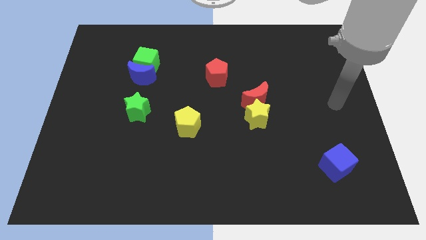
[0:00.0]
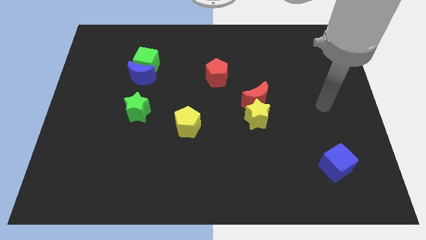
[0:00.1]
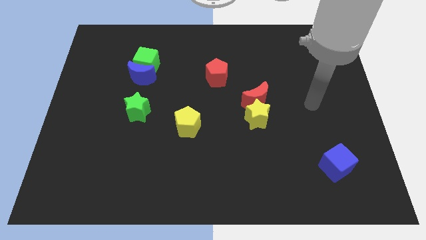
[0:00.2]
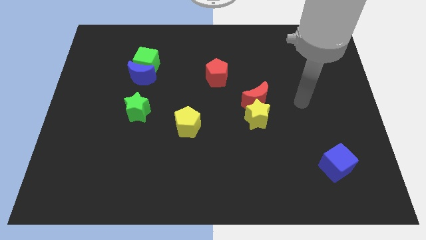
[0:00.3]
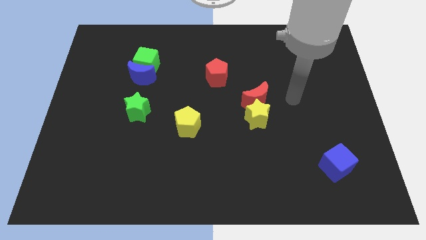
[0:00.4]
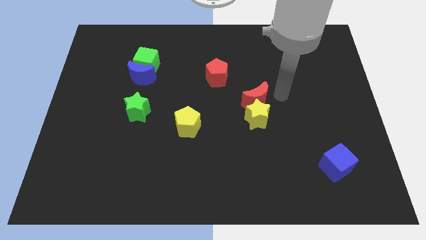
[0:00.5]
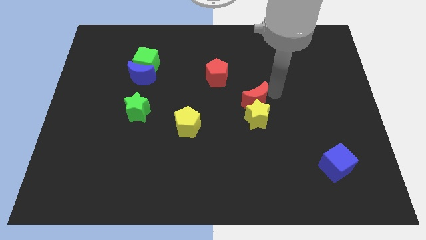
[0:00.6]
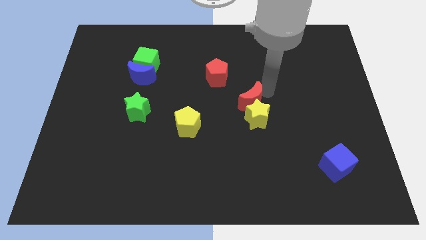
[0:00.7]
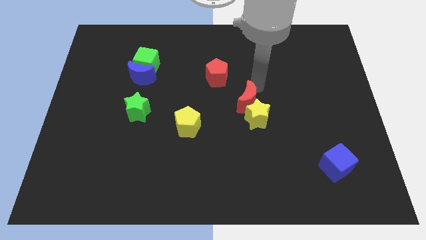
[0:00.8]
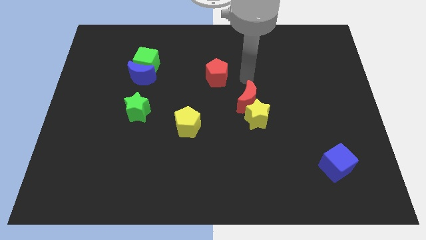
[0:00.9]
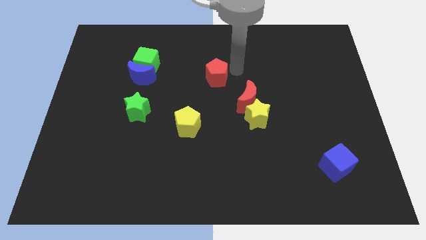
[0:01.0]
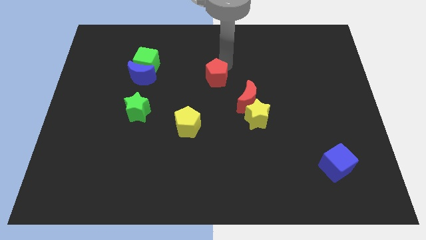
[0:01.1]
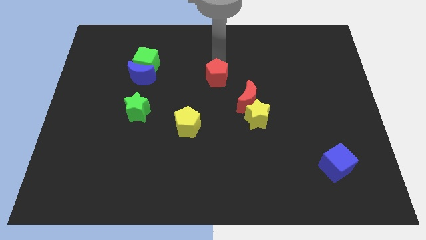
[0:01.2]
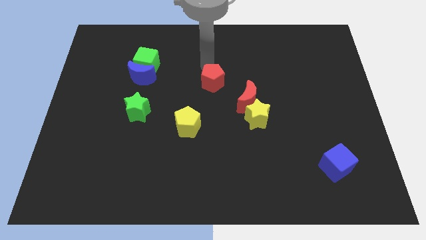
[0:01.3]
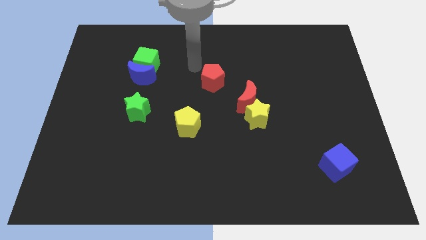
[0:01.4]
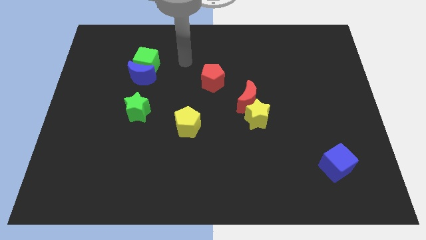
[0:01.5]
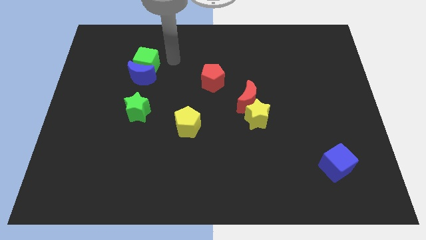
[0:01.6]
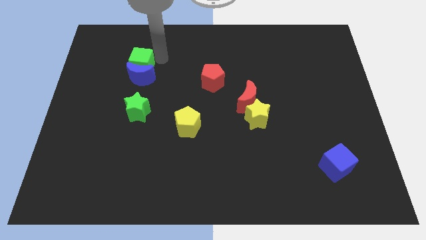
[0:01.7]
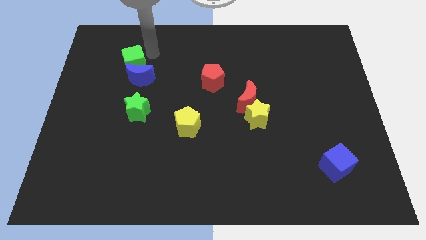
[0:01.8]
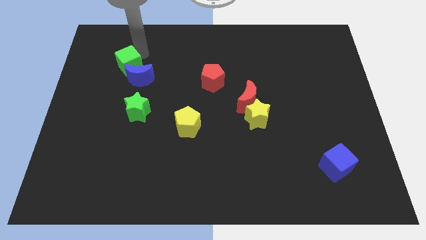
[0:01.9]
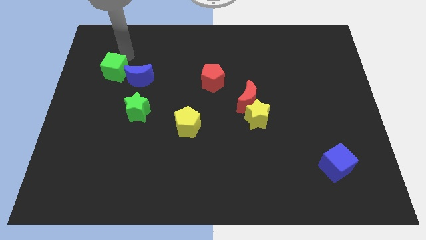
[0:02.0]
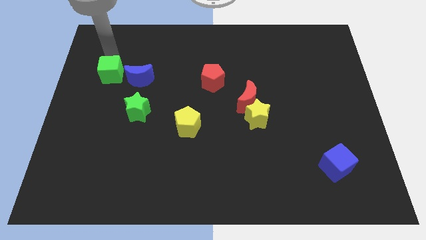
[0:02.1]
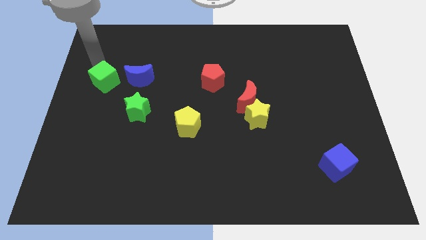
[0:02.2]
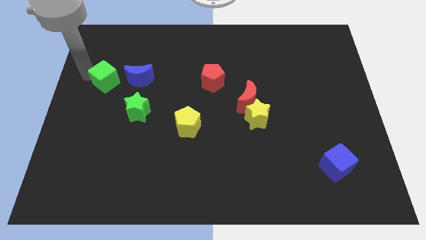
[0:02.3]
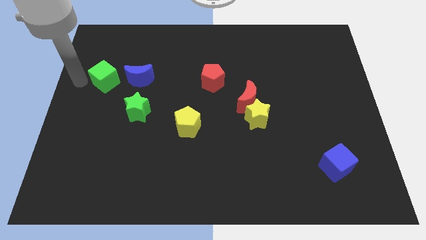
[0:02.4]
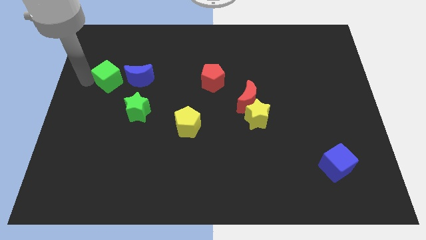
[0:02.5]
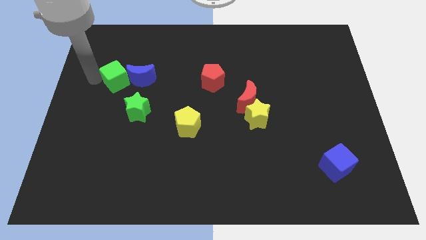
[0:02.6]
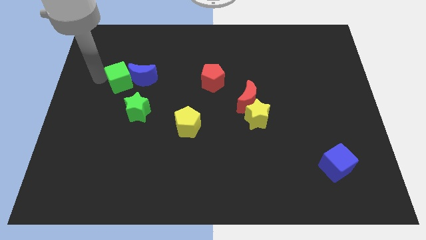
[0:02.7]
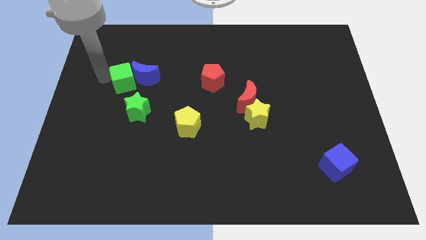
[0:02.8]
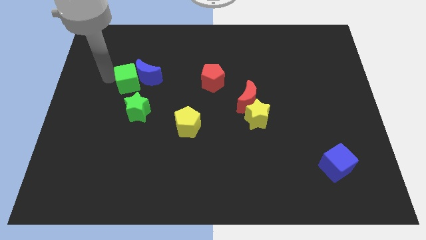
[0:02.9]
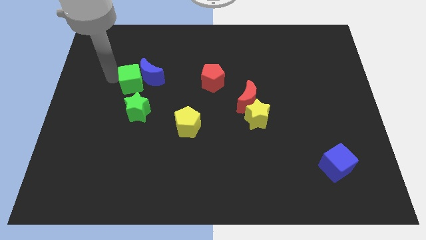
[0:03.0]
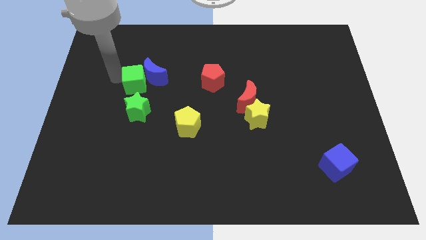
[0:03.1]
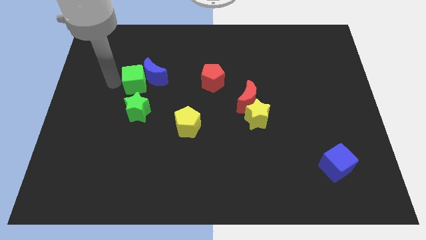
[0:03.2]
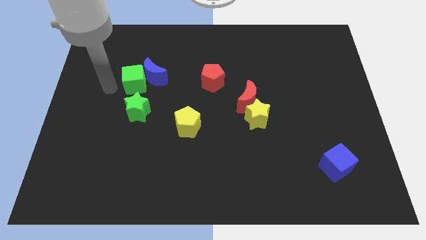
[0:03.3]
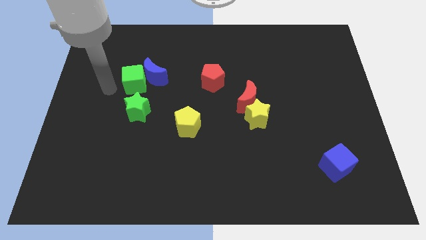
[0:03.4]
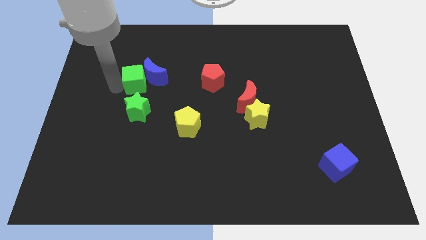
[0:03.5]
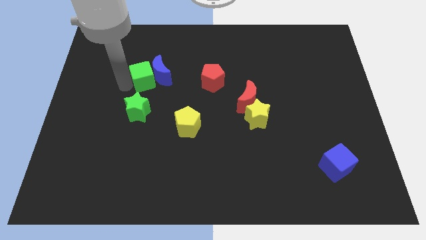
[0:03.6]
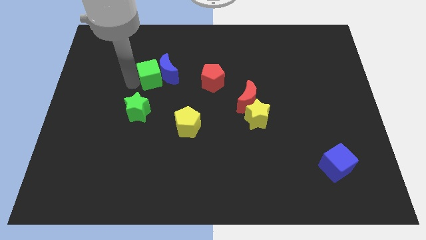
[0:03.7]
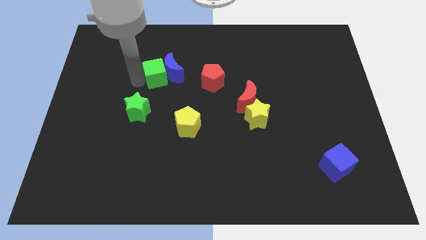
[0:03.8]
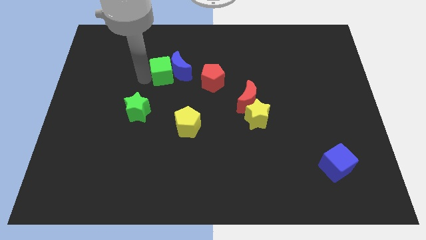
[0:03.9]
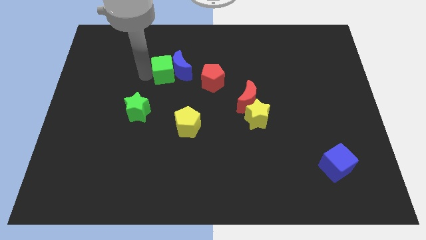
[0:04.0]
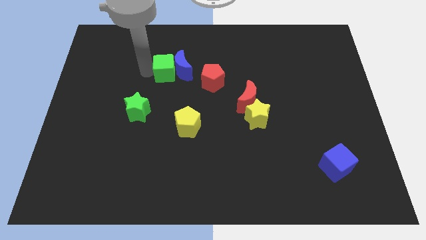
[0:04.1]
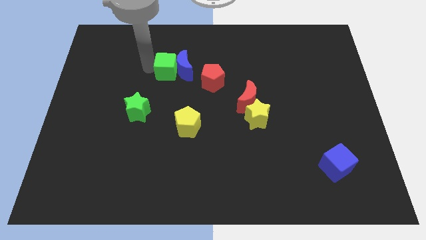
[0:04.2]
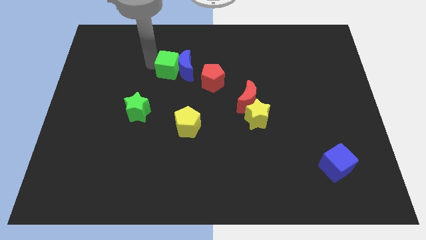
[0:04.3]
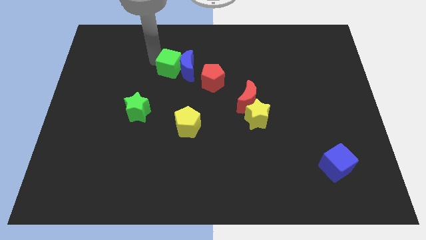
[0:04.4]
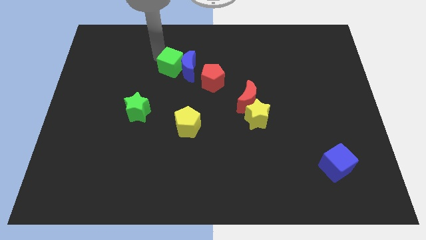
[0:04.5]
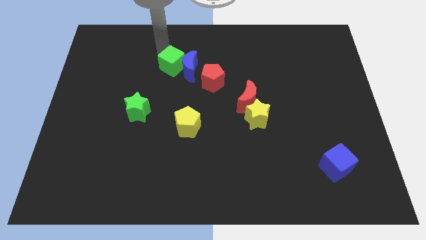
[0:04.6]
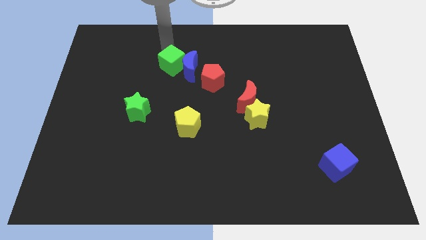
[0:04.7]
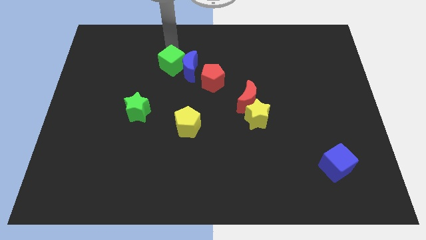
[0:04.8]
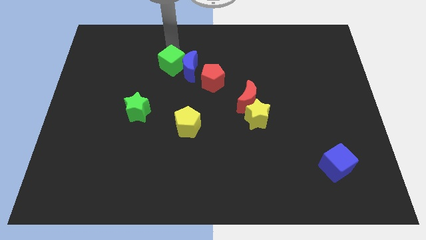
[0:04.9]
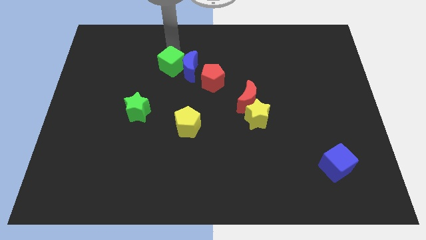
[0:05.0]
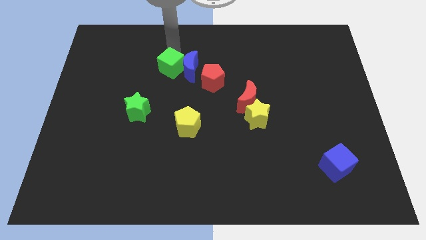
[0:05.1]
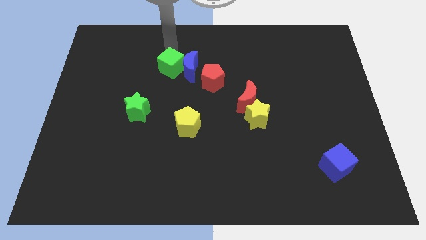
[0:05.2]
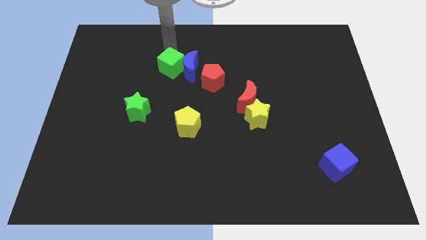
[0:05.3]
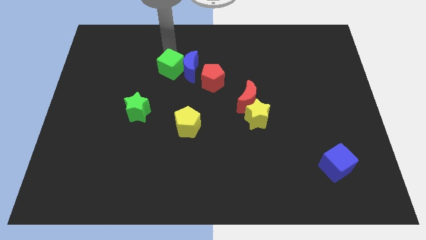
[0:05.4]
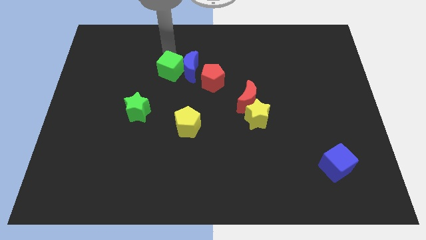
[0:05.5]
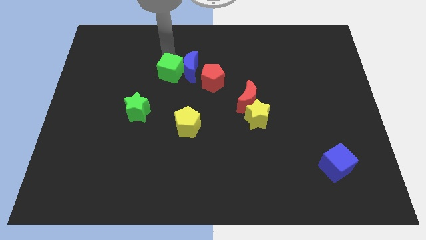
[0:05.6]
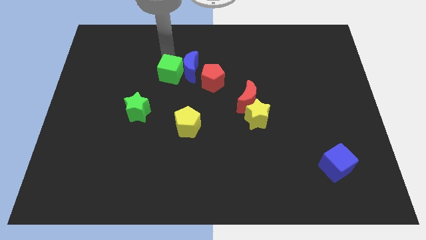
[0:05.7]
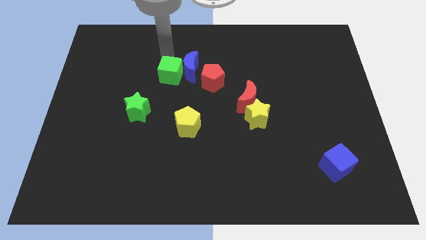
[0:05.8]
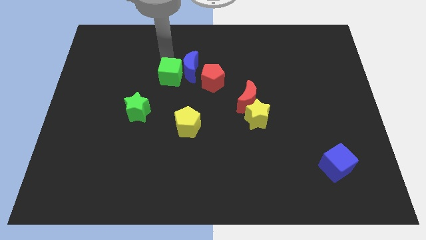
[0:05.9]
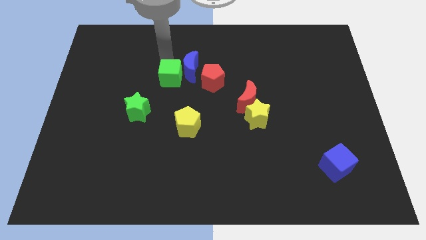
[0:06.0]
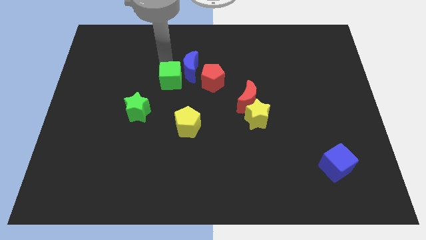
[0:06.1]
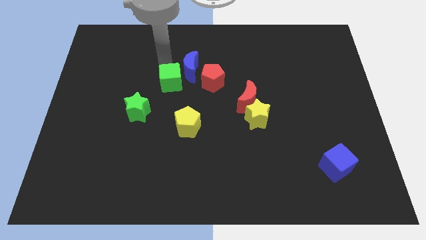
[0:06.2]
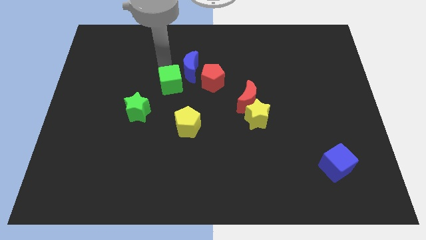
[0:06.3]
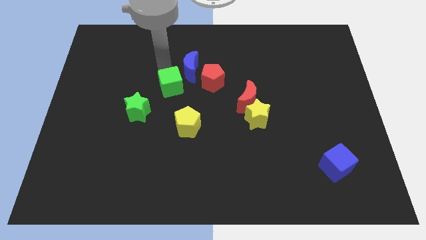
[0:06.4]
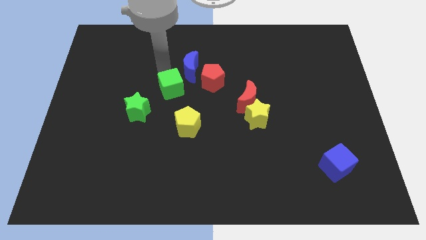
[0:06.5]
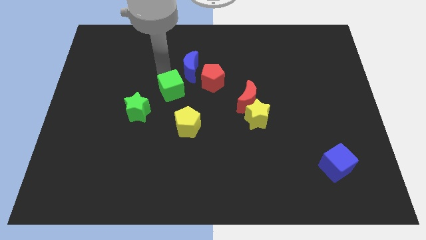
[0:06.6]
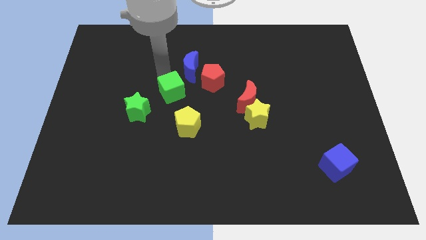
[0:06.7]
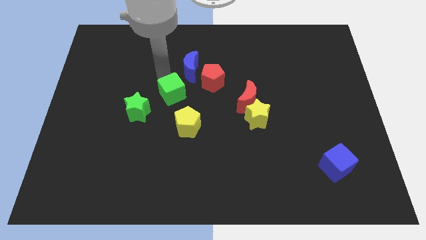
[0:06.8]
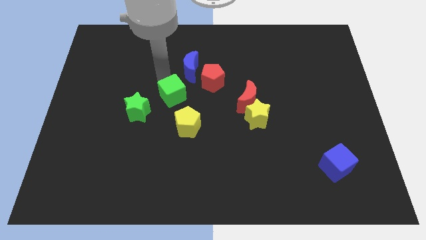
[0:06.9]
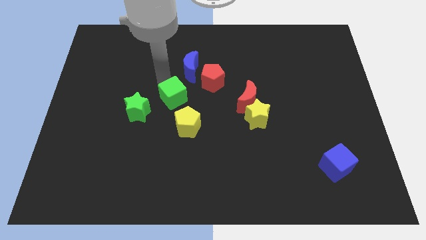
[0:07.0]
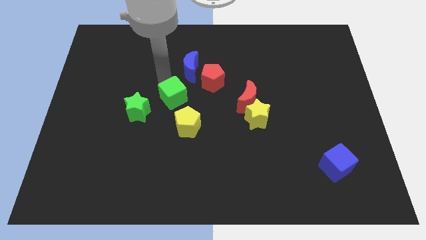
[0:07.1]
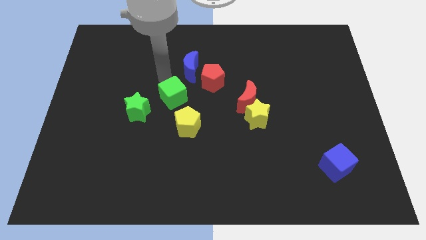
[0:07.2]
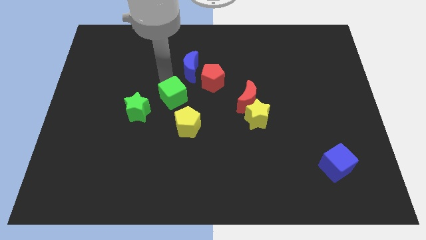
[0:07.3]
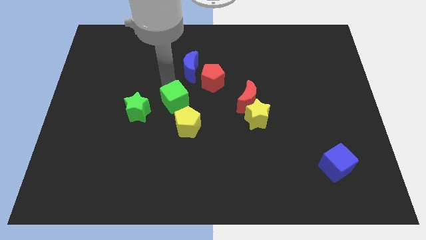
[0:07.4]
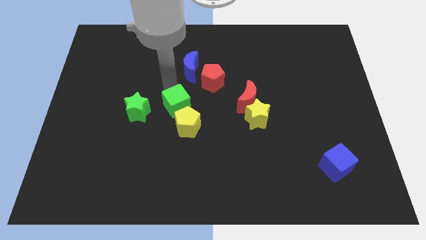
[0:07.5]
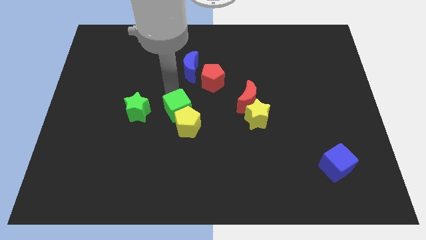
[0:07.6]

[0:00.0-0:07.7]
push the green cube close to the yellow pentagon
